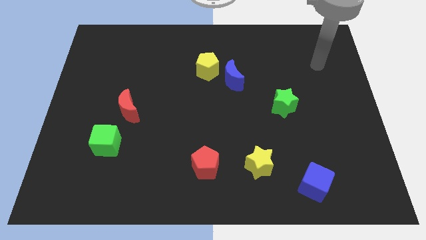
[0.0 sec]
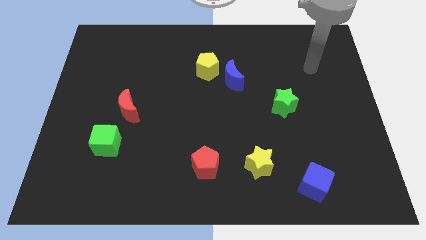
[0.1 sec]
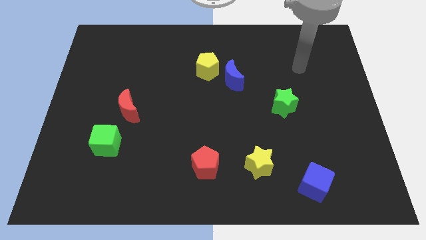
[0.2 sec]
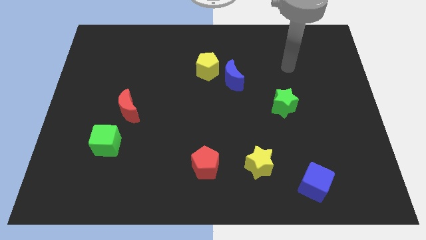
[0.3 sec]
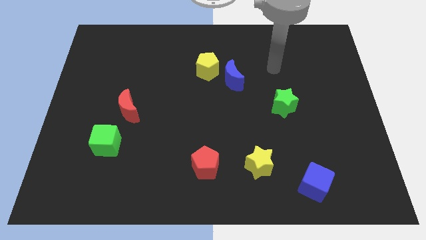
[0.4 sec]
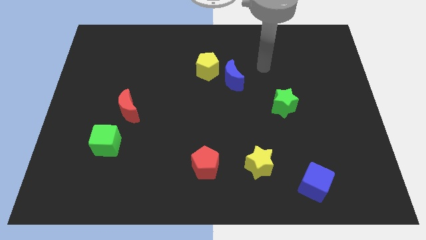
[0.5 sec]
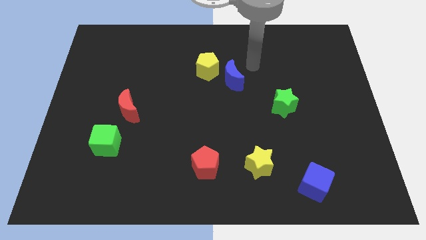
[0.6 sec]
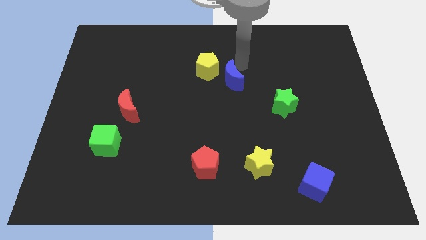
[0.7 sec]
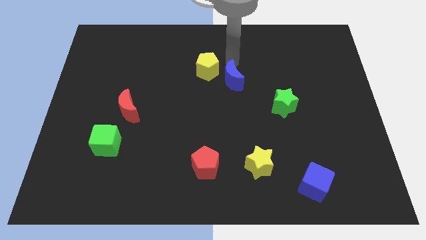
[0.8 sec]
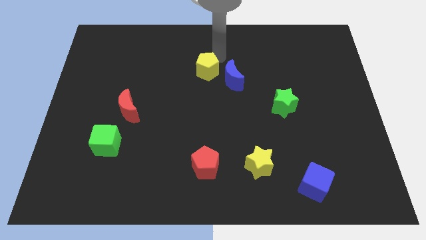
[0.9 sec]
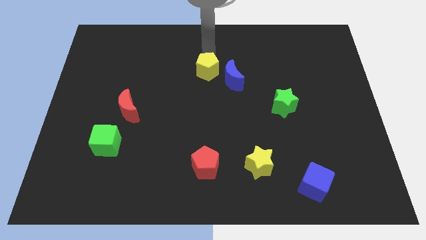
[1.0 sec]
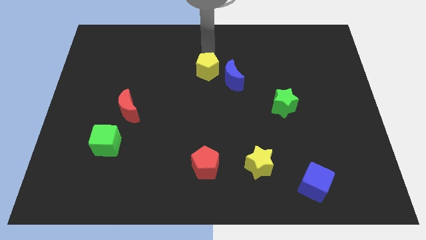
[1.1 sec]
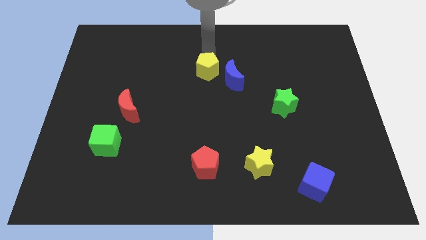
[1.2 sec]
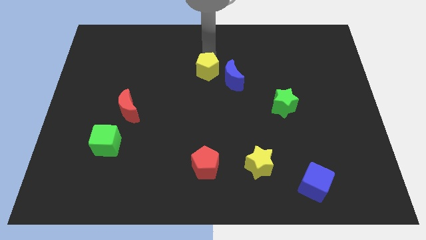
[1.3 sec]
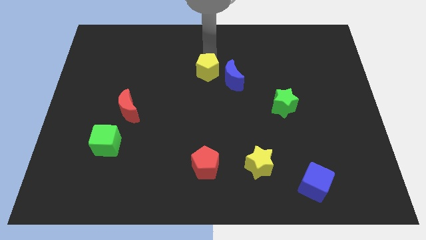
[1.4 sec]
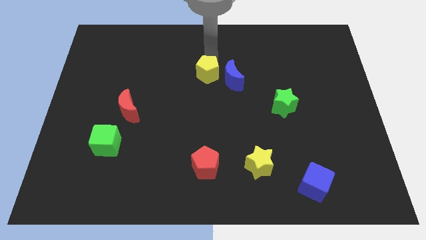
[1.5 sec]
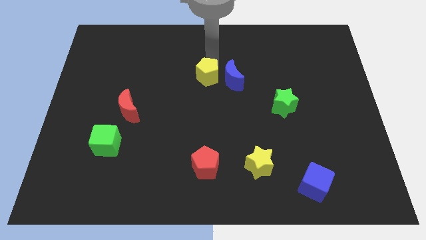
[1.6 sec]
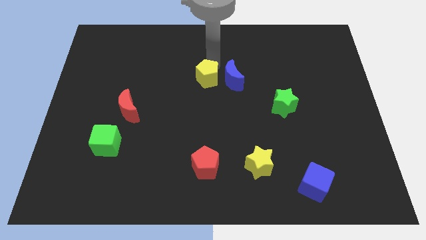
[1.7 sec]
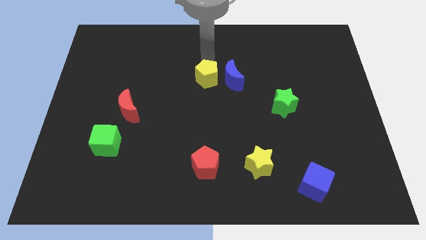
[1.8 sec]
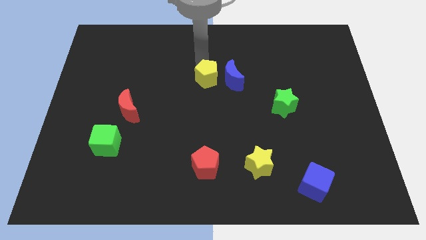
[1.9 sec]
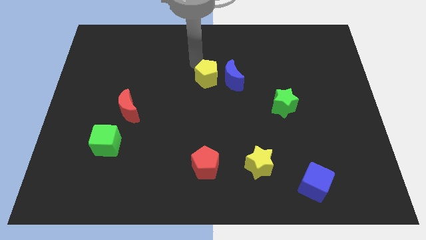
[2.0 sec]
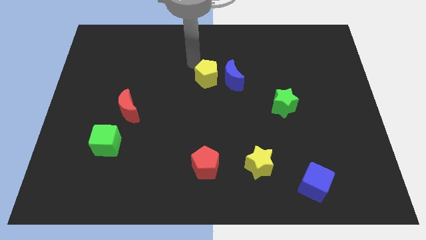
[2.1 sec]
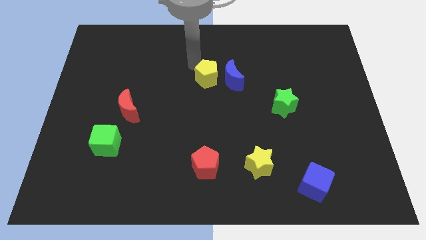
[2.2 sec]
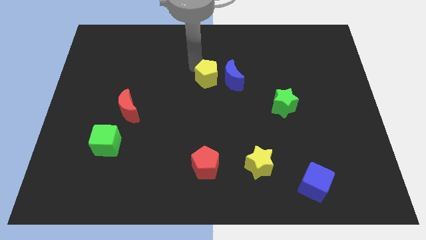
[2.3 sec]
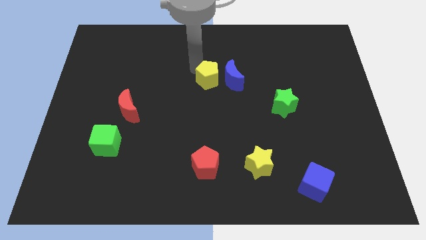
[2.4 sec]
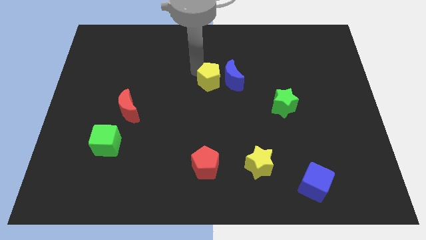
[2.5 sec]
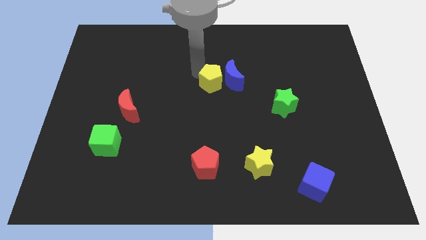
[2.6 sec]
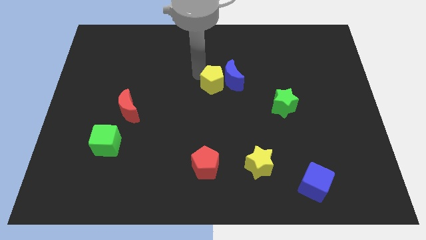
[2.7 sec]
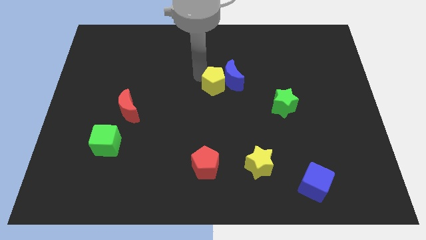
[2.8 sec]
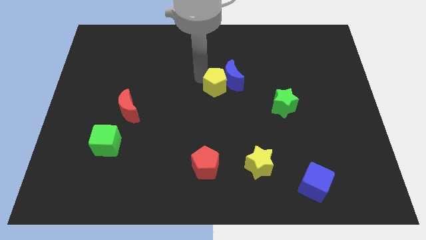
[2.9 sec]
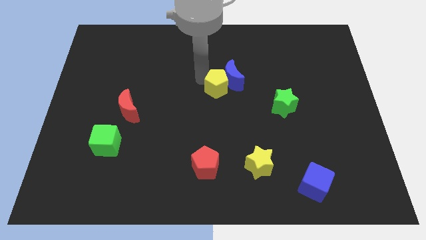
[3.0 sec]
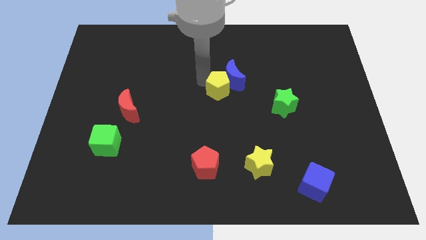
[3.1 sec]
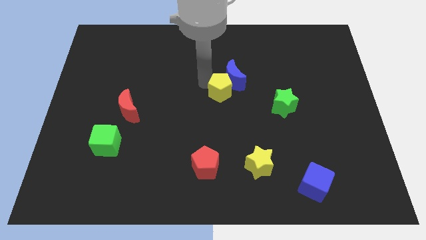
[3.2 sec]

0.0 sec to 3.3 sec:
push the yellow pentagon somewhat down and then right

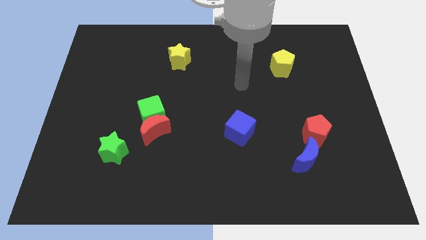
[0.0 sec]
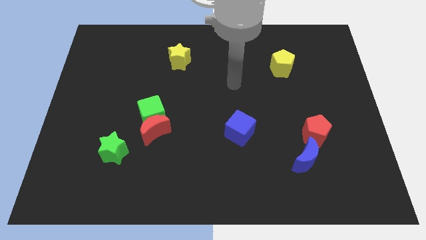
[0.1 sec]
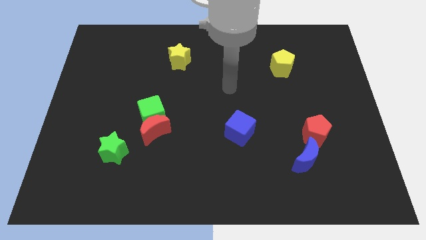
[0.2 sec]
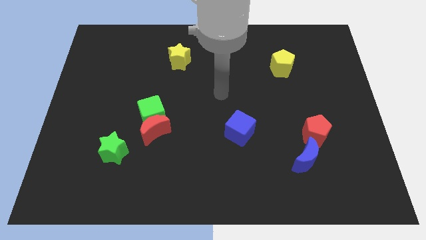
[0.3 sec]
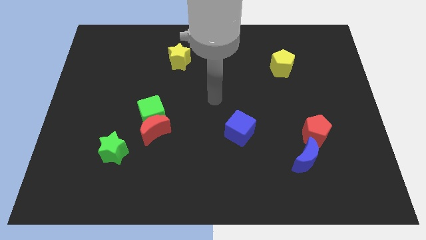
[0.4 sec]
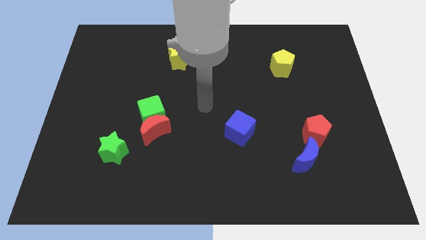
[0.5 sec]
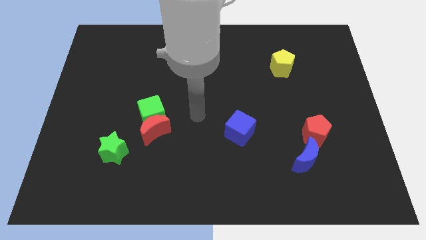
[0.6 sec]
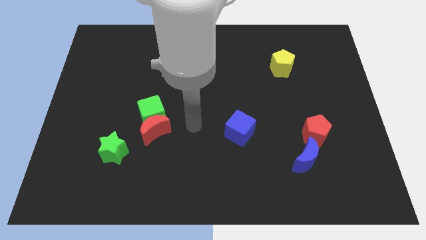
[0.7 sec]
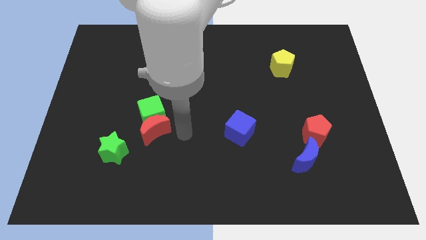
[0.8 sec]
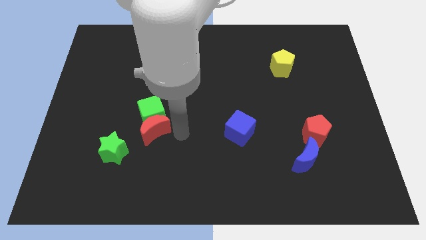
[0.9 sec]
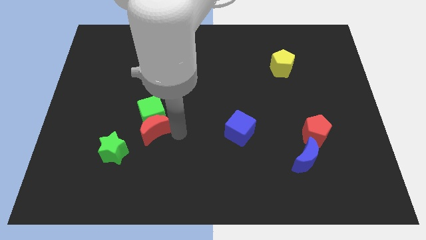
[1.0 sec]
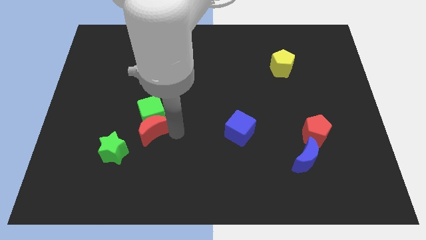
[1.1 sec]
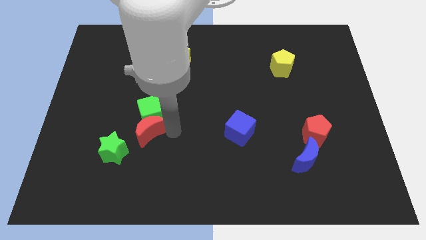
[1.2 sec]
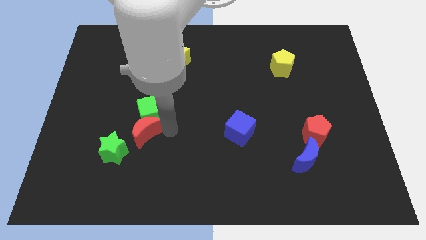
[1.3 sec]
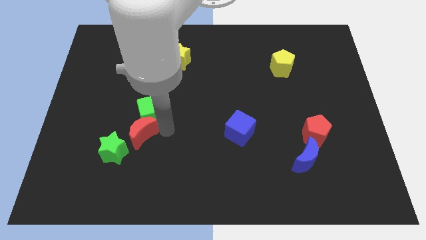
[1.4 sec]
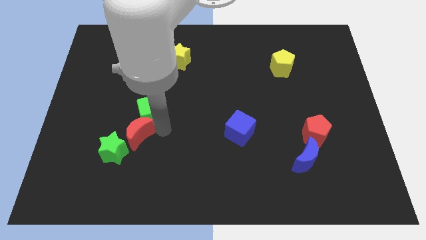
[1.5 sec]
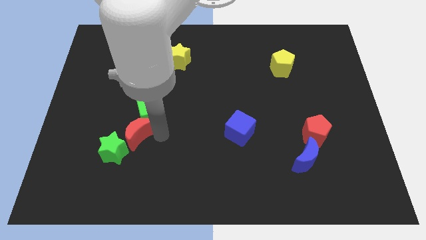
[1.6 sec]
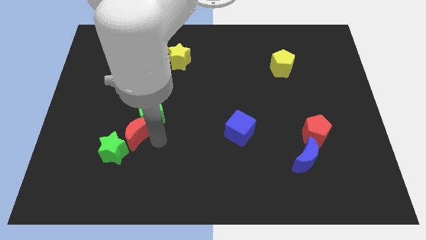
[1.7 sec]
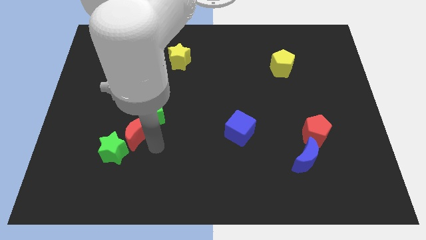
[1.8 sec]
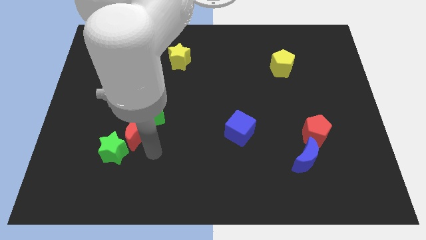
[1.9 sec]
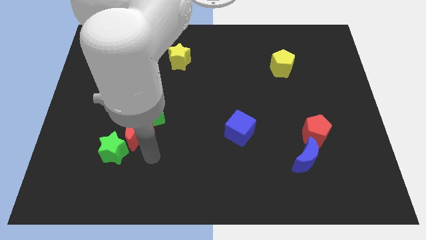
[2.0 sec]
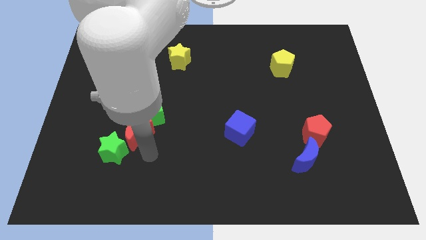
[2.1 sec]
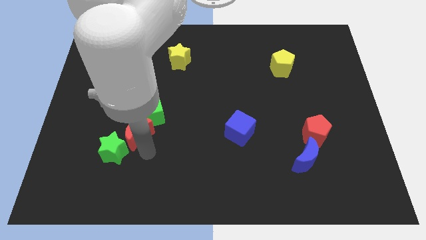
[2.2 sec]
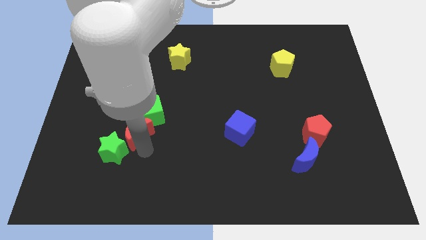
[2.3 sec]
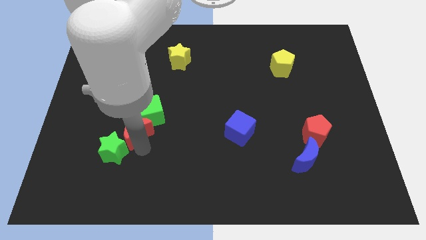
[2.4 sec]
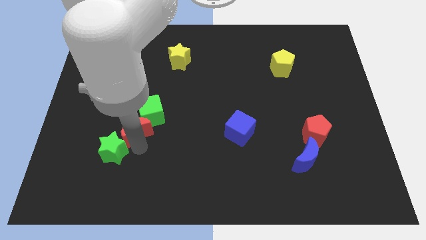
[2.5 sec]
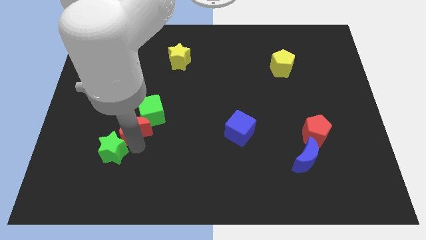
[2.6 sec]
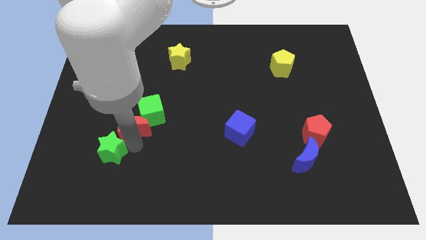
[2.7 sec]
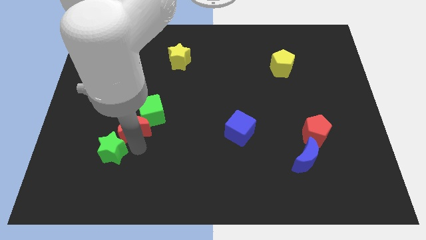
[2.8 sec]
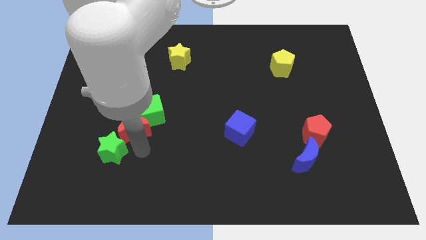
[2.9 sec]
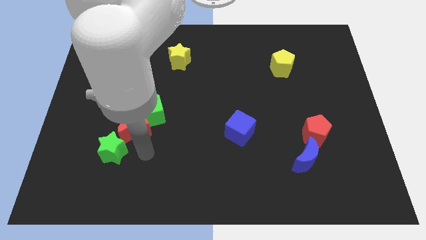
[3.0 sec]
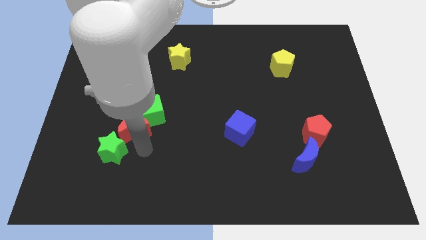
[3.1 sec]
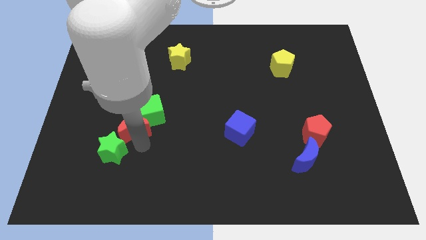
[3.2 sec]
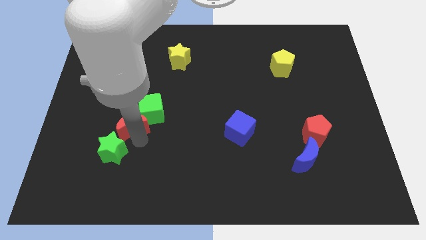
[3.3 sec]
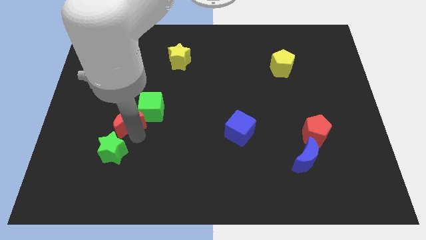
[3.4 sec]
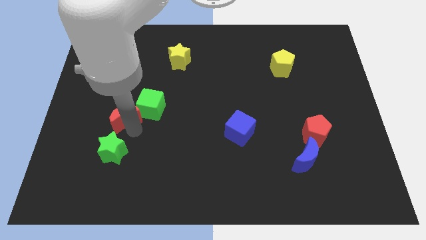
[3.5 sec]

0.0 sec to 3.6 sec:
slide the red moon a little bit upwards and left diagonally

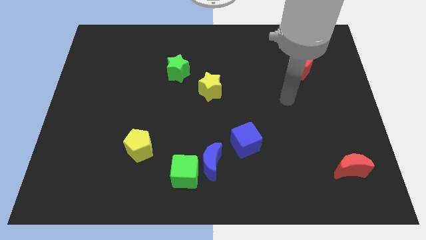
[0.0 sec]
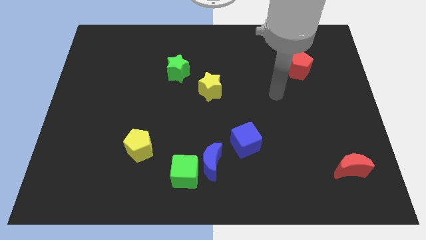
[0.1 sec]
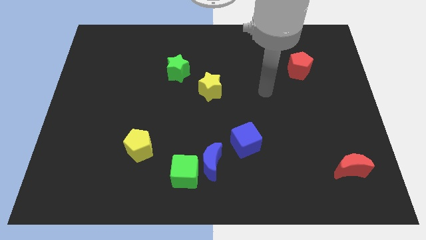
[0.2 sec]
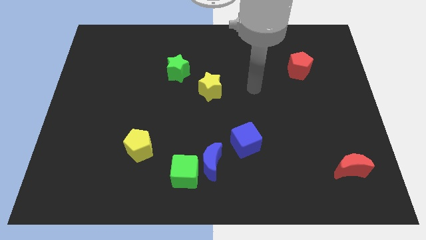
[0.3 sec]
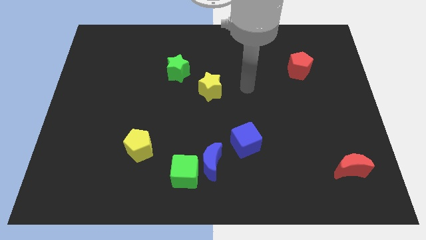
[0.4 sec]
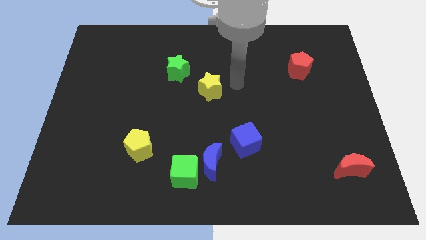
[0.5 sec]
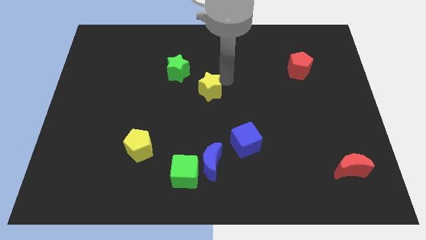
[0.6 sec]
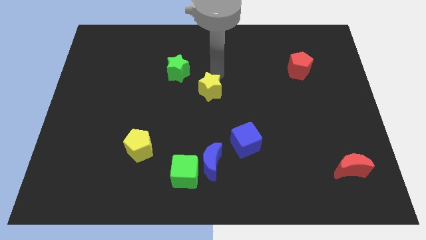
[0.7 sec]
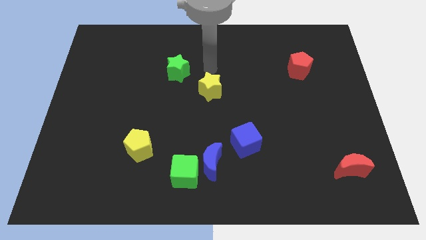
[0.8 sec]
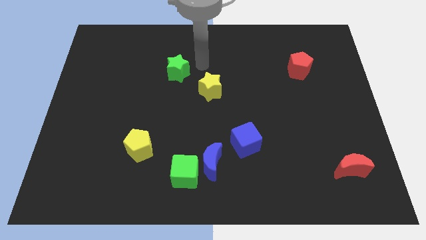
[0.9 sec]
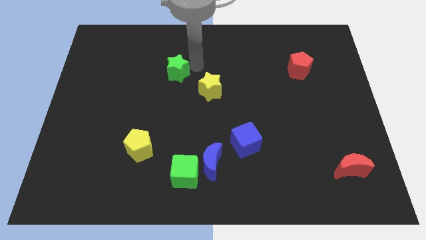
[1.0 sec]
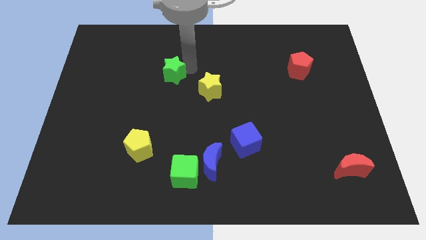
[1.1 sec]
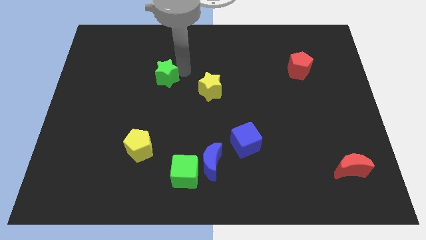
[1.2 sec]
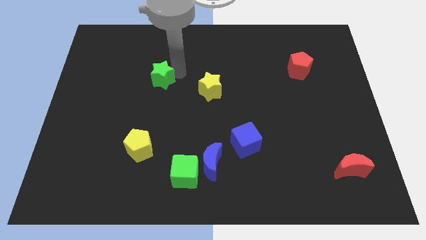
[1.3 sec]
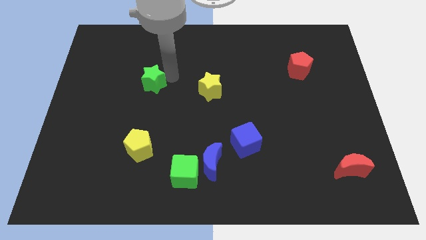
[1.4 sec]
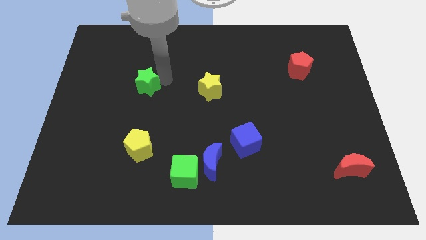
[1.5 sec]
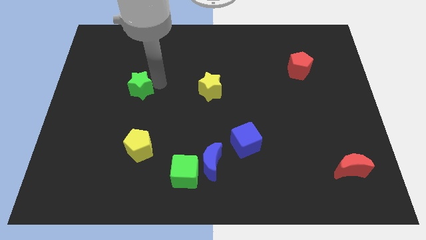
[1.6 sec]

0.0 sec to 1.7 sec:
slide the green star somewhat left
